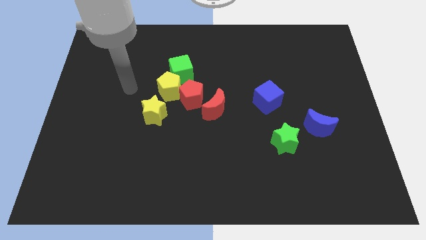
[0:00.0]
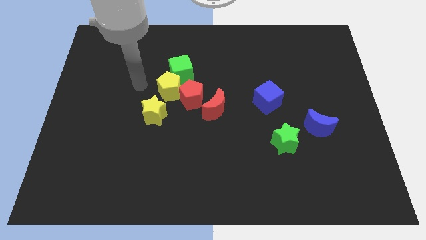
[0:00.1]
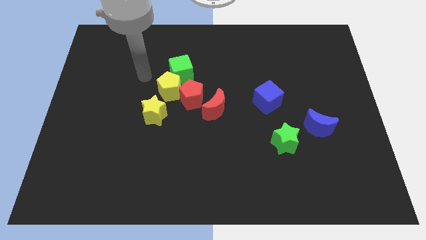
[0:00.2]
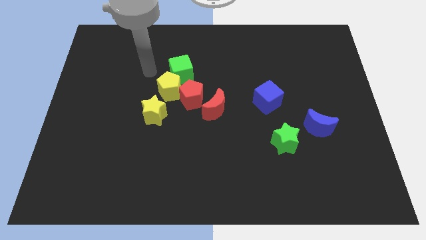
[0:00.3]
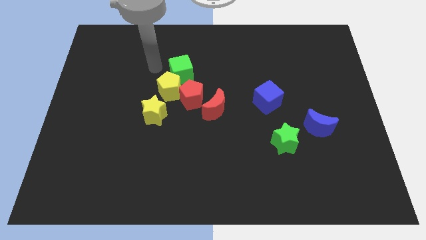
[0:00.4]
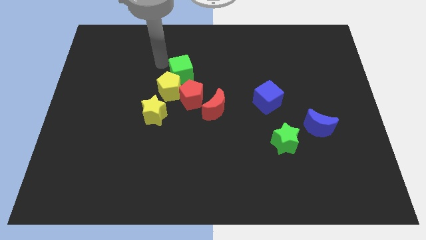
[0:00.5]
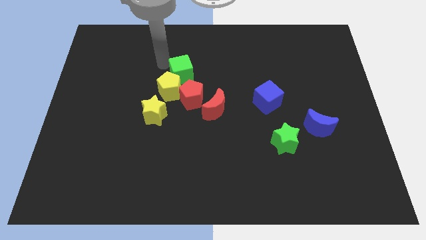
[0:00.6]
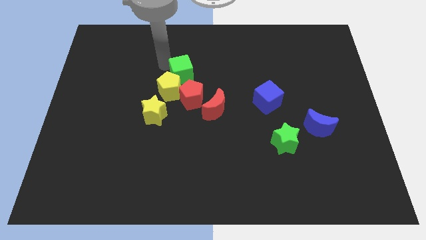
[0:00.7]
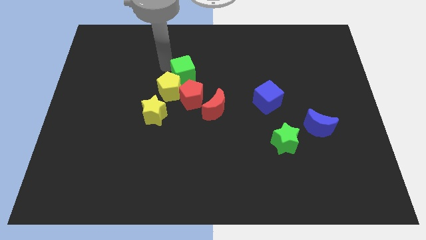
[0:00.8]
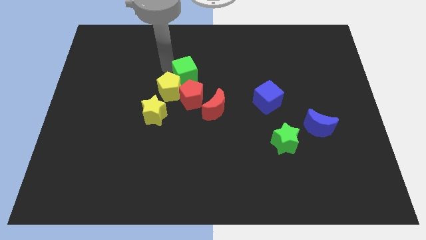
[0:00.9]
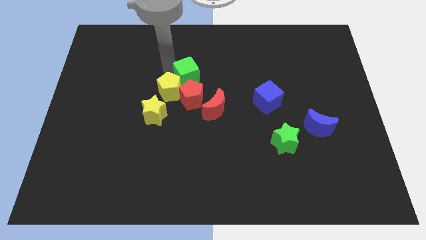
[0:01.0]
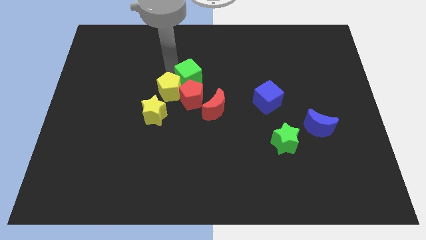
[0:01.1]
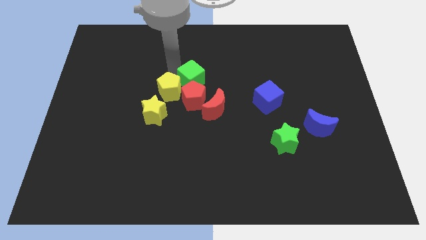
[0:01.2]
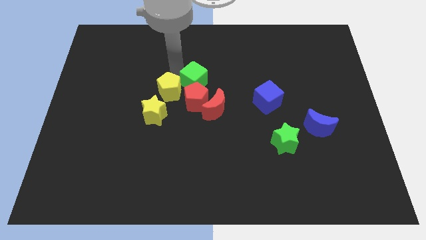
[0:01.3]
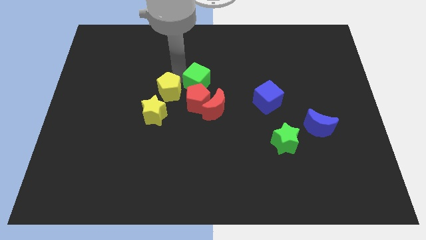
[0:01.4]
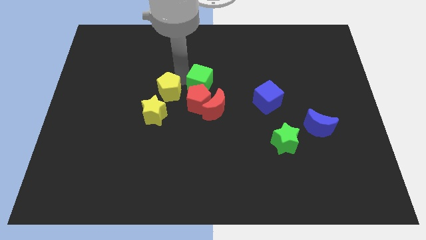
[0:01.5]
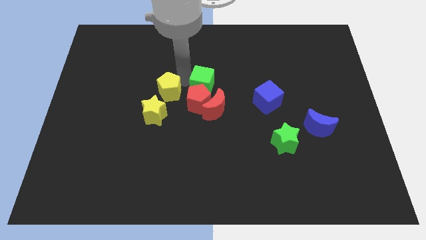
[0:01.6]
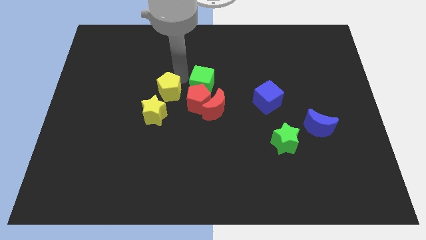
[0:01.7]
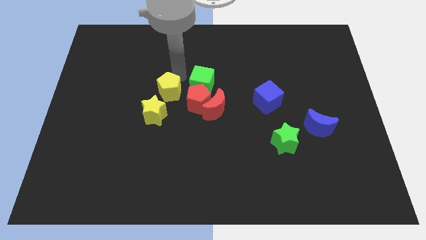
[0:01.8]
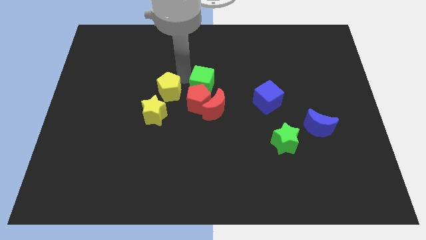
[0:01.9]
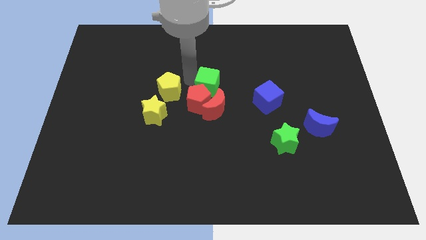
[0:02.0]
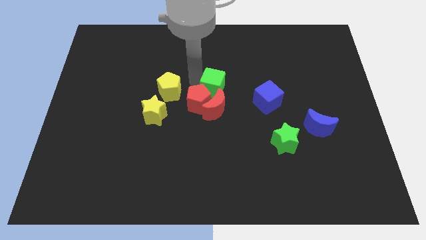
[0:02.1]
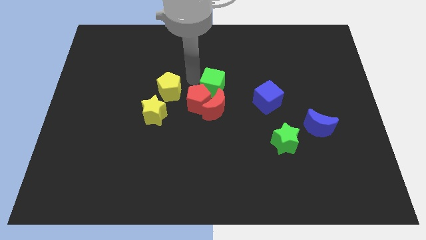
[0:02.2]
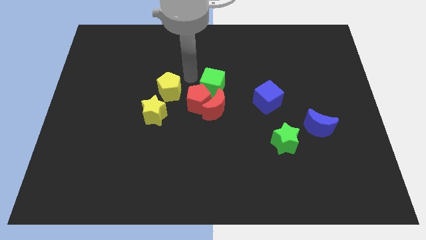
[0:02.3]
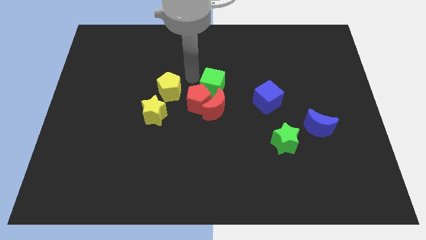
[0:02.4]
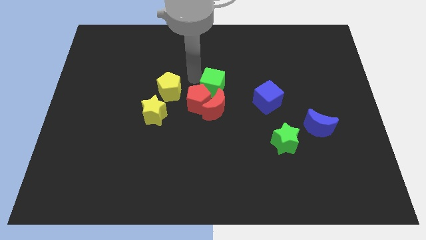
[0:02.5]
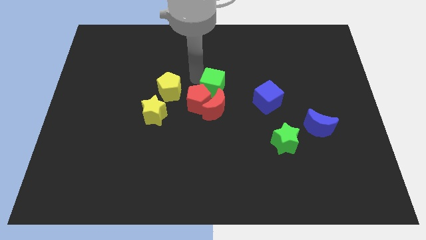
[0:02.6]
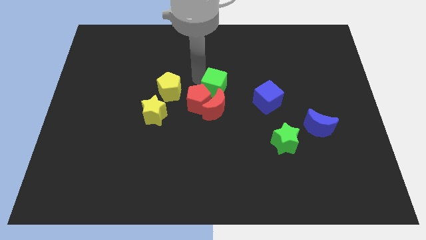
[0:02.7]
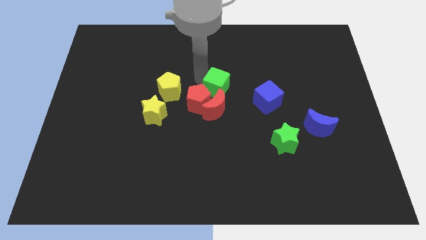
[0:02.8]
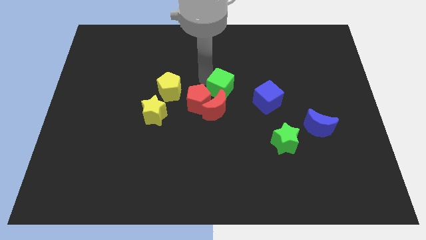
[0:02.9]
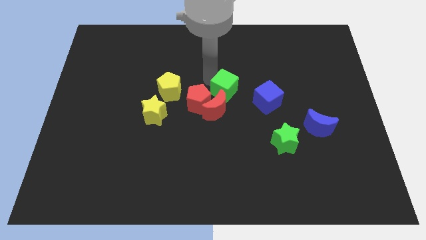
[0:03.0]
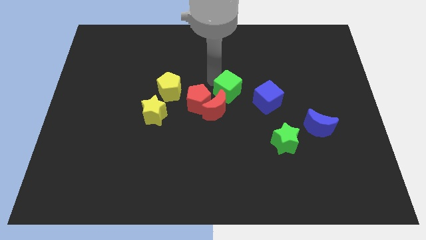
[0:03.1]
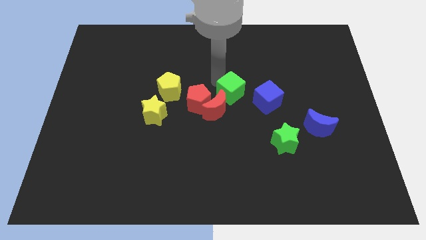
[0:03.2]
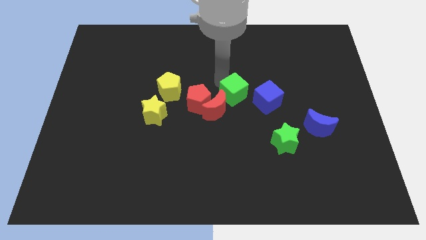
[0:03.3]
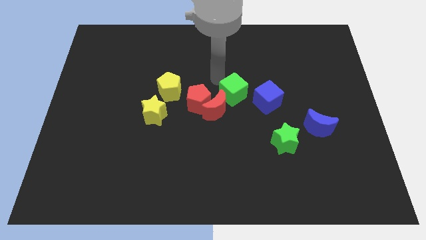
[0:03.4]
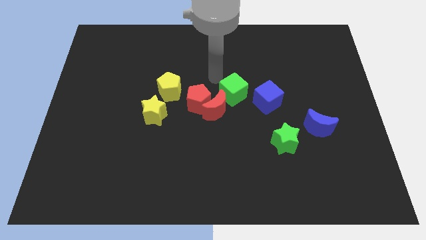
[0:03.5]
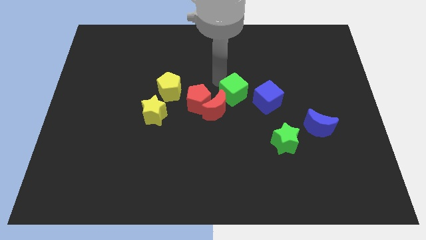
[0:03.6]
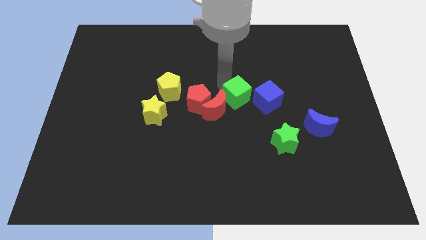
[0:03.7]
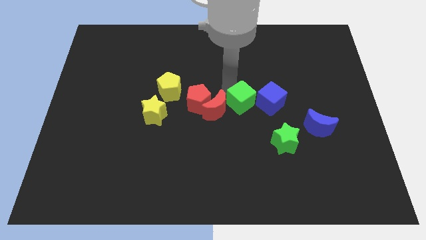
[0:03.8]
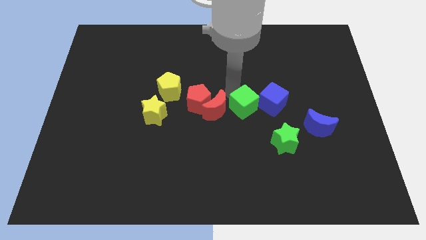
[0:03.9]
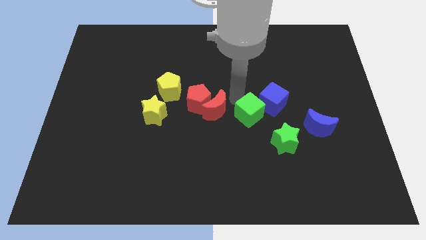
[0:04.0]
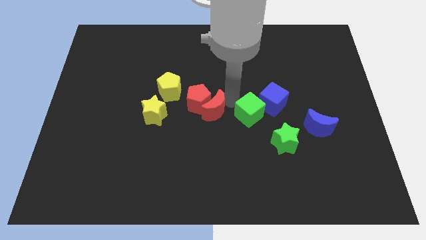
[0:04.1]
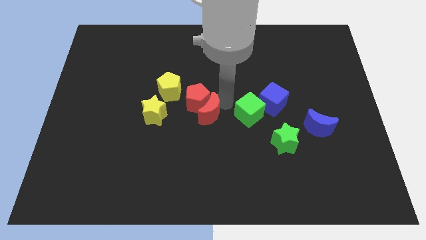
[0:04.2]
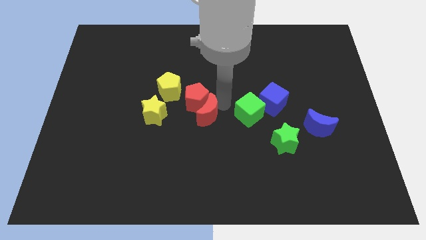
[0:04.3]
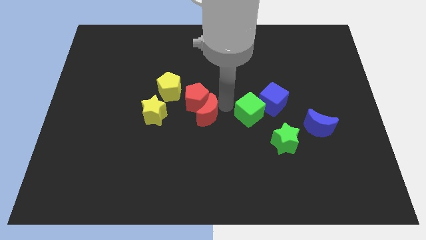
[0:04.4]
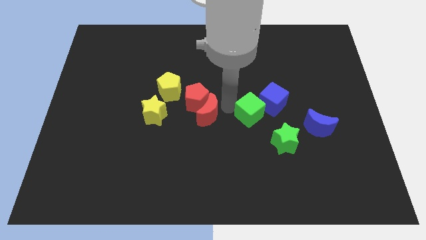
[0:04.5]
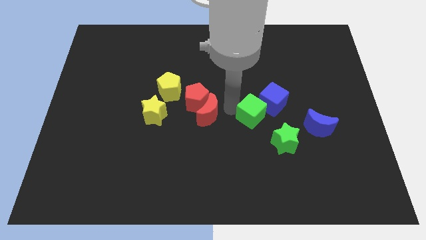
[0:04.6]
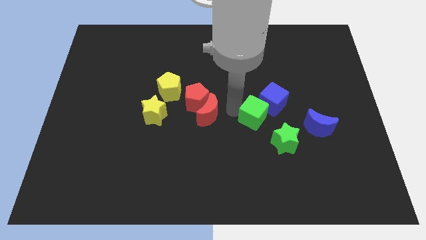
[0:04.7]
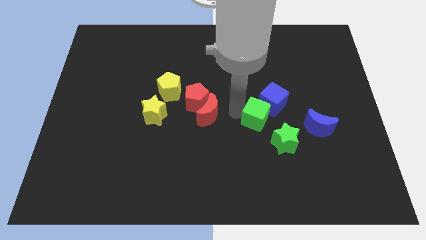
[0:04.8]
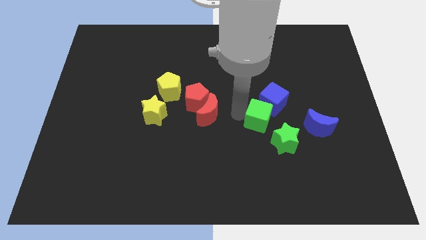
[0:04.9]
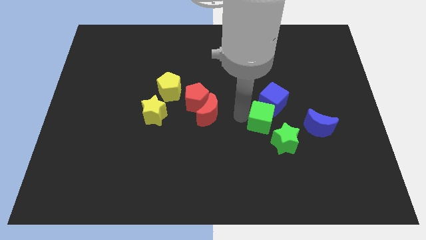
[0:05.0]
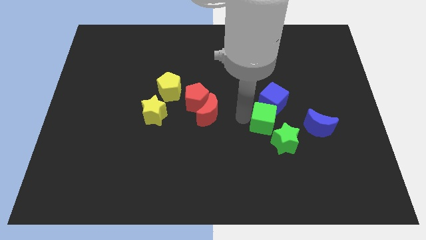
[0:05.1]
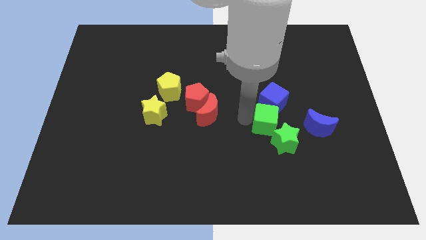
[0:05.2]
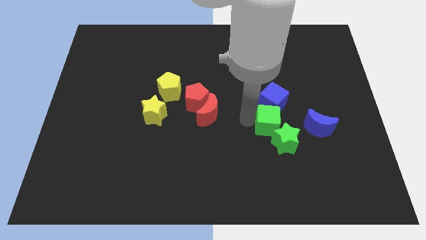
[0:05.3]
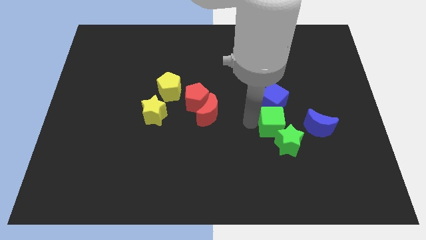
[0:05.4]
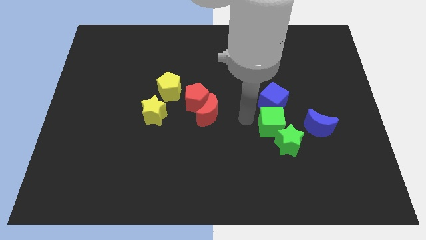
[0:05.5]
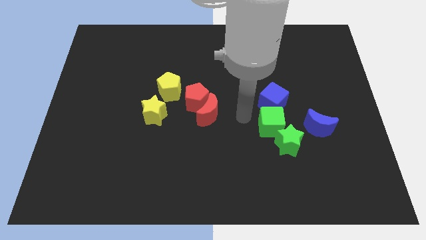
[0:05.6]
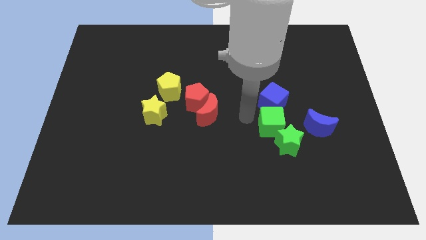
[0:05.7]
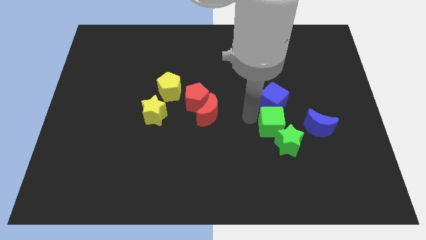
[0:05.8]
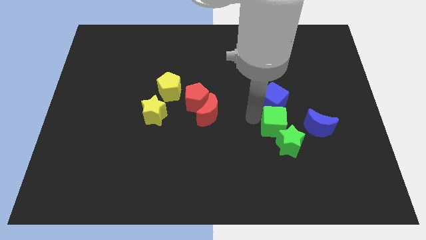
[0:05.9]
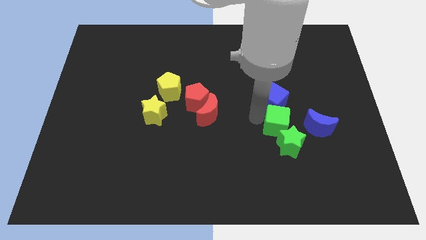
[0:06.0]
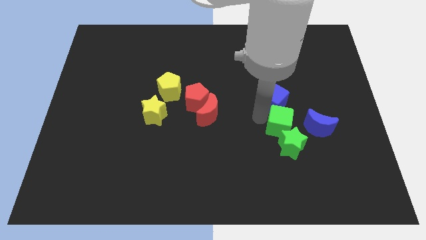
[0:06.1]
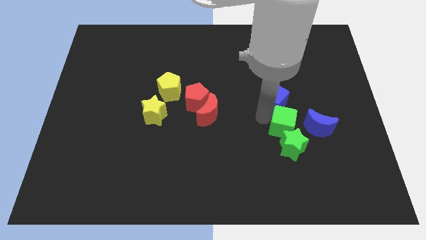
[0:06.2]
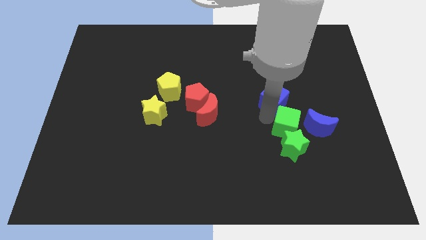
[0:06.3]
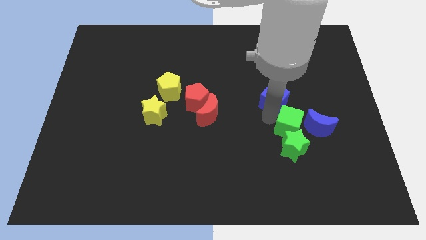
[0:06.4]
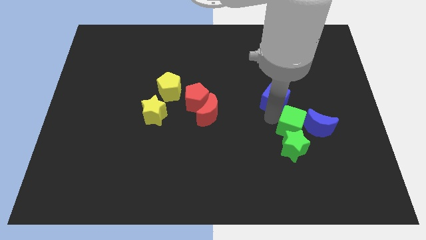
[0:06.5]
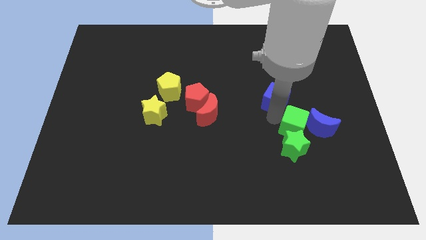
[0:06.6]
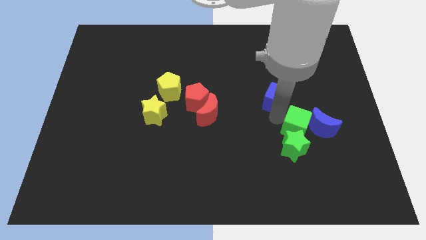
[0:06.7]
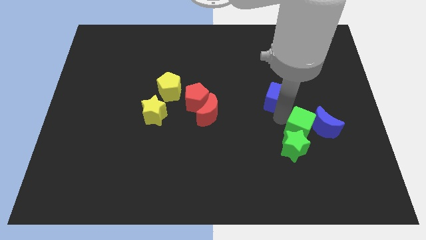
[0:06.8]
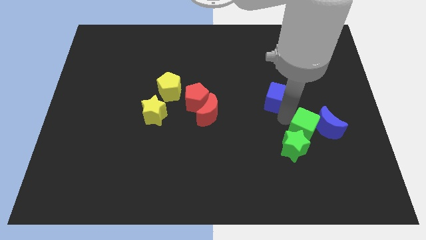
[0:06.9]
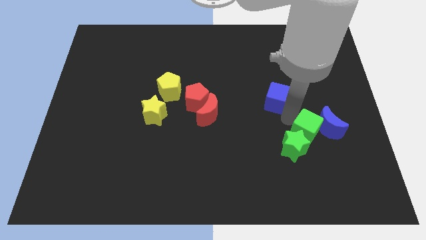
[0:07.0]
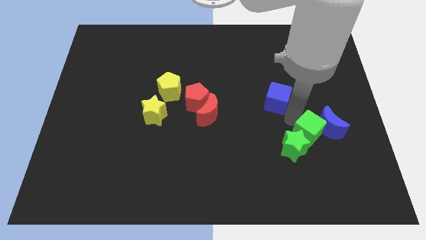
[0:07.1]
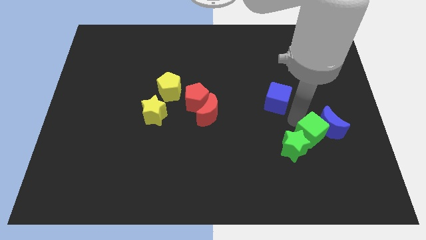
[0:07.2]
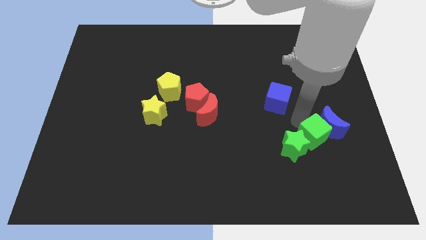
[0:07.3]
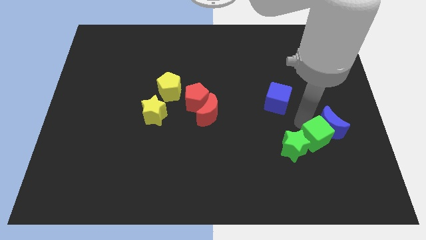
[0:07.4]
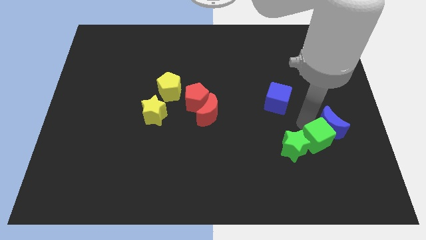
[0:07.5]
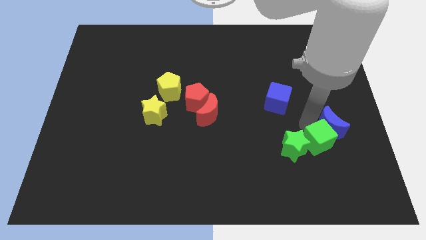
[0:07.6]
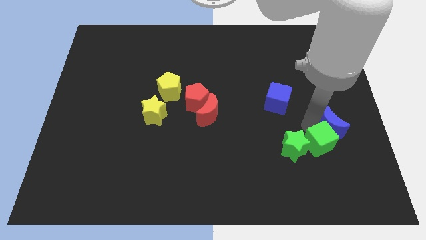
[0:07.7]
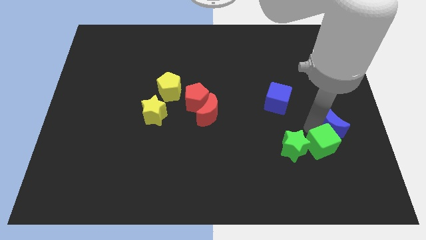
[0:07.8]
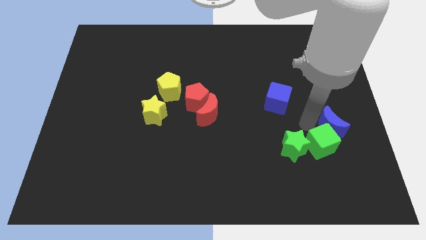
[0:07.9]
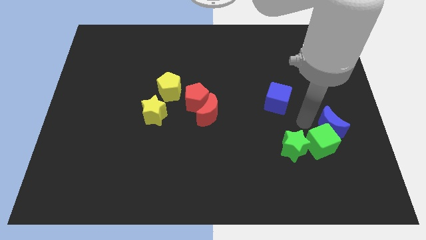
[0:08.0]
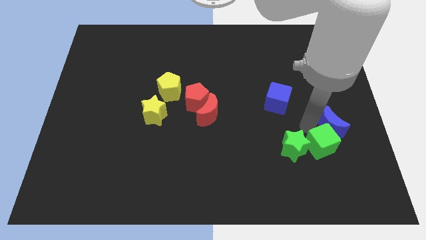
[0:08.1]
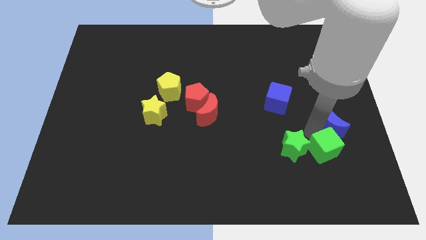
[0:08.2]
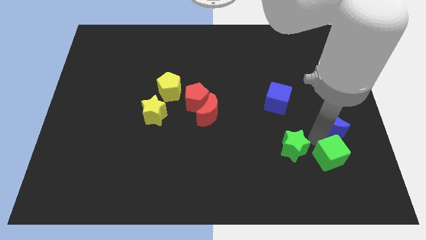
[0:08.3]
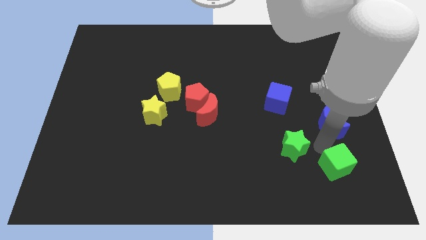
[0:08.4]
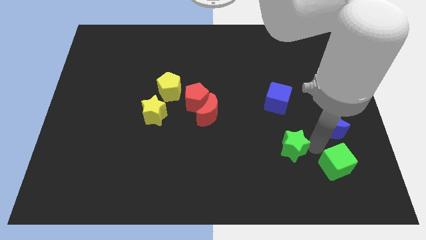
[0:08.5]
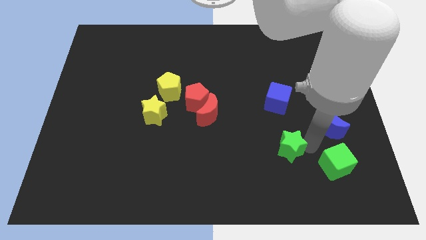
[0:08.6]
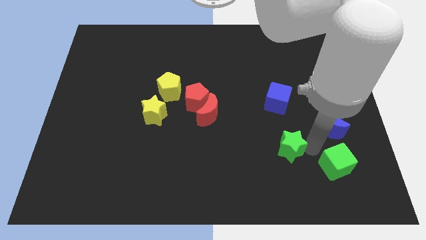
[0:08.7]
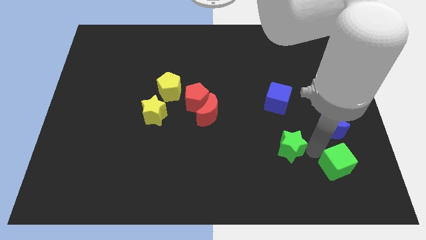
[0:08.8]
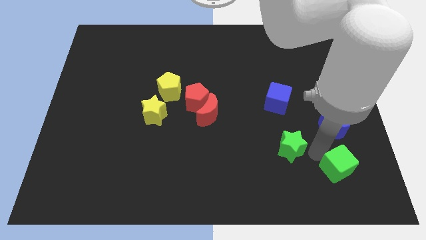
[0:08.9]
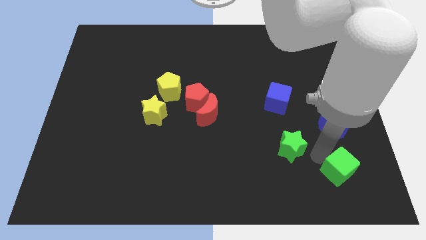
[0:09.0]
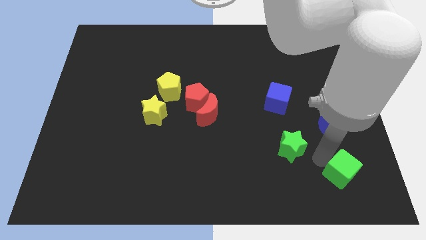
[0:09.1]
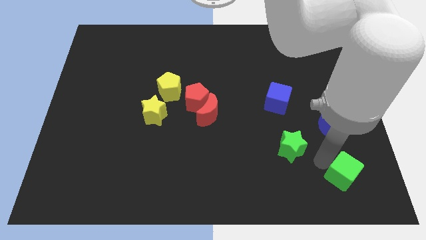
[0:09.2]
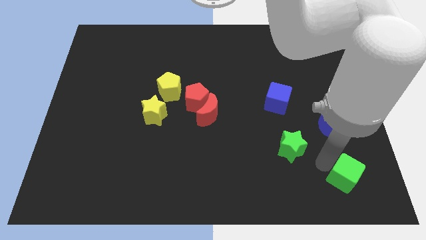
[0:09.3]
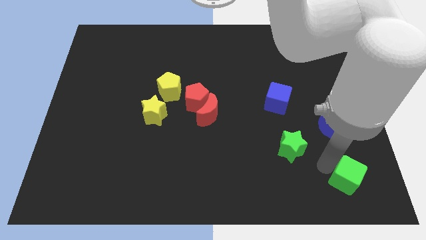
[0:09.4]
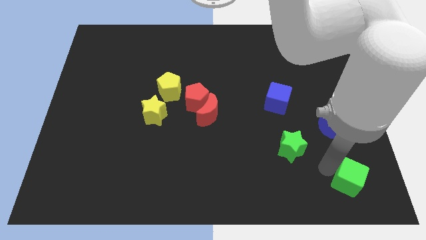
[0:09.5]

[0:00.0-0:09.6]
slide the green cube to the bottom right of the board
